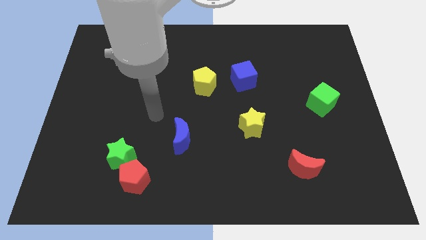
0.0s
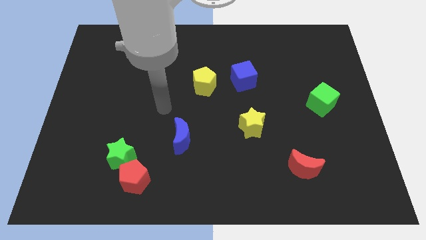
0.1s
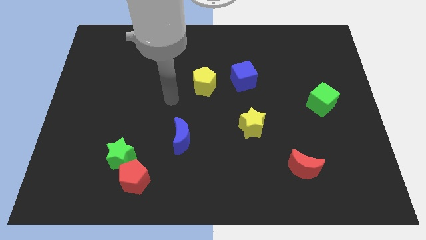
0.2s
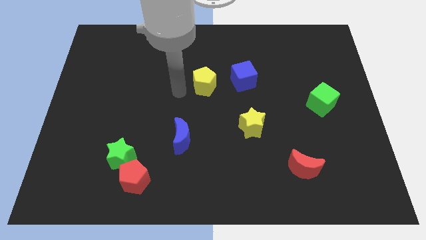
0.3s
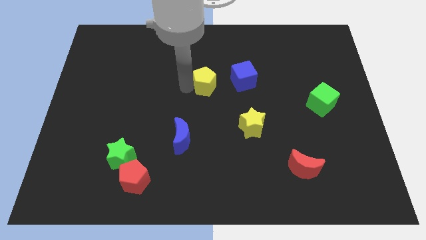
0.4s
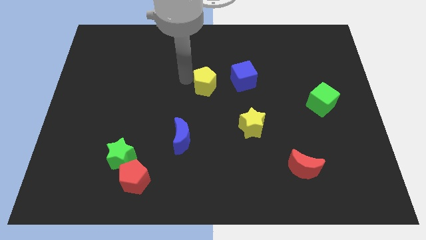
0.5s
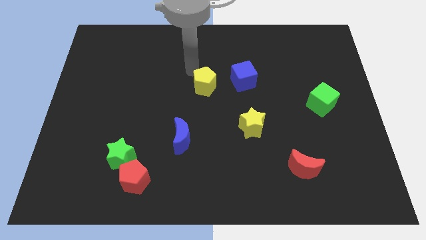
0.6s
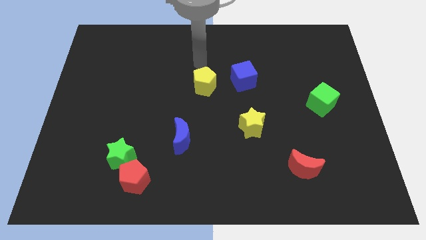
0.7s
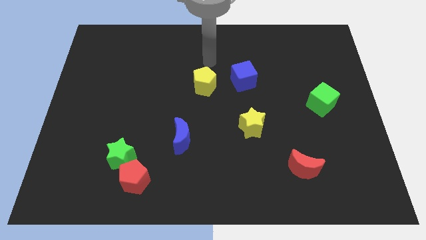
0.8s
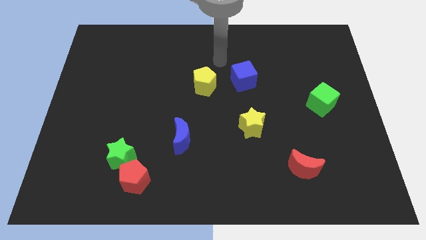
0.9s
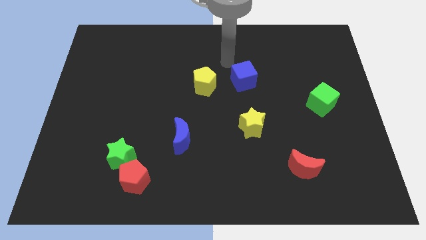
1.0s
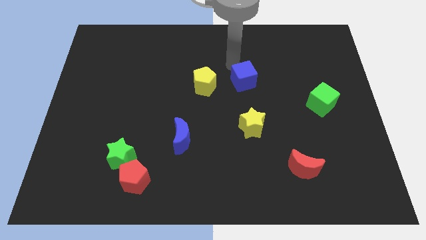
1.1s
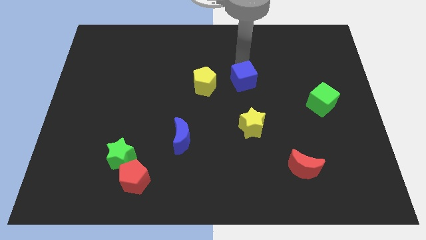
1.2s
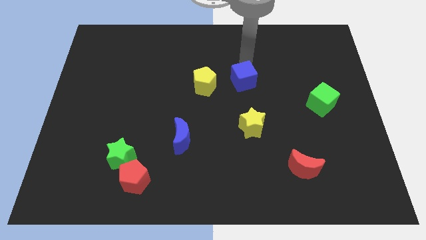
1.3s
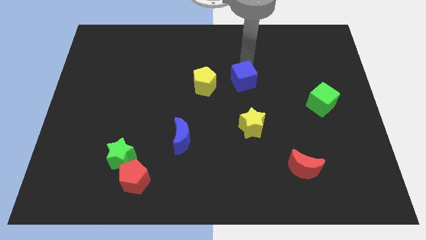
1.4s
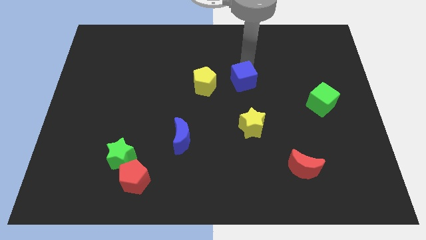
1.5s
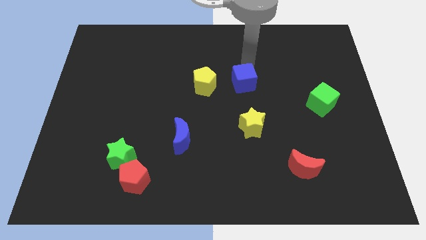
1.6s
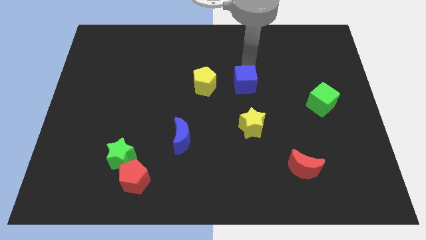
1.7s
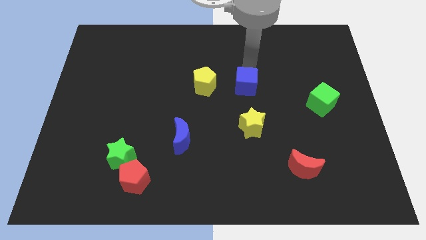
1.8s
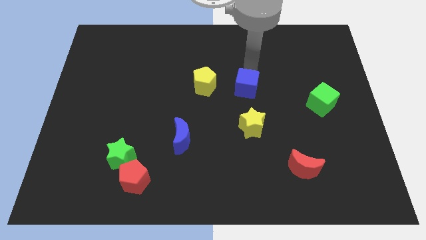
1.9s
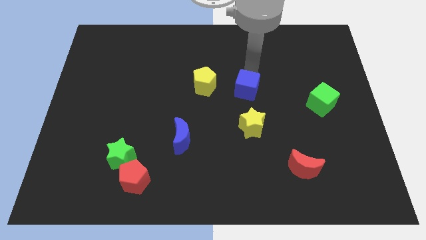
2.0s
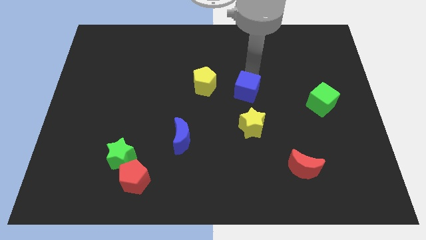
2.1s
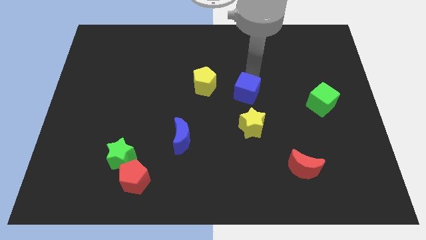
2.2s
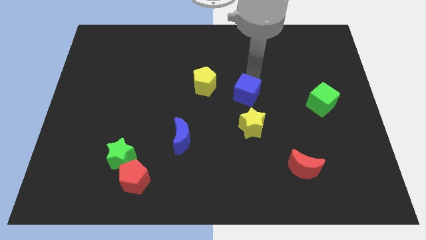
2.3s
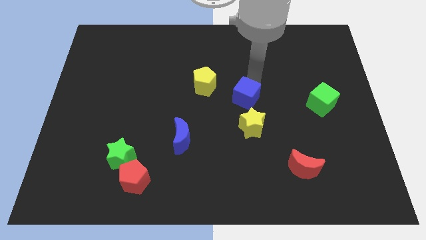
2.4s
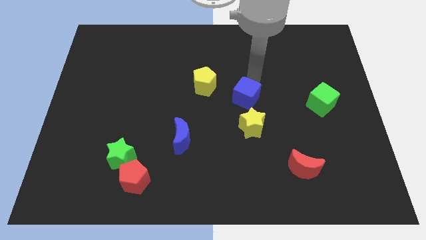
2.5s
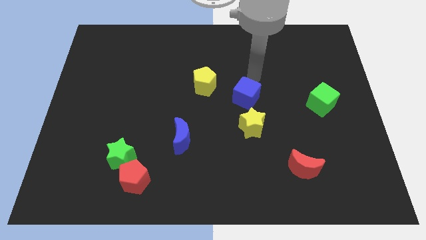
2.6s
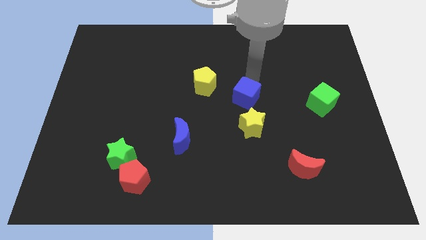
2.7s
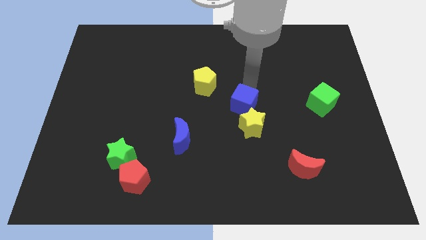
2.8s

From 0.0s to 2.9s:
push the blue cube a little down

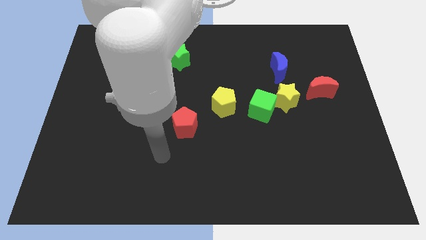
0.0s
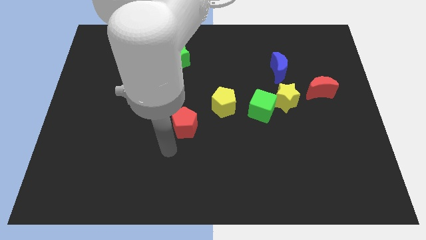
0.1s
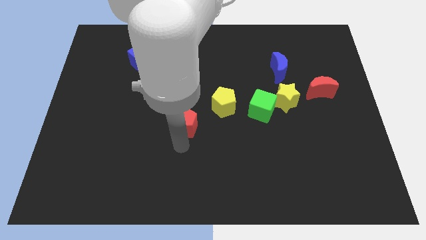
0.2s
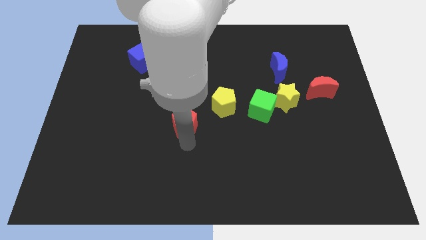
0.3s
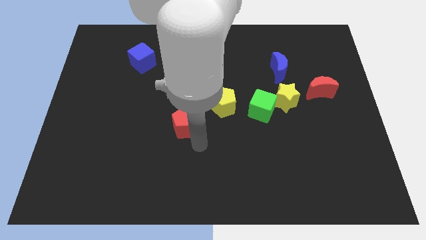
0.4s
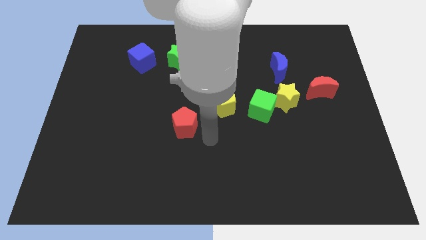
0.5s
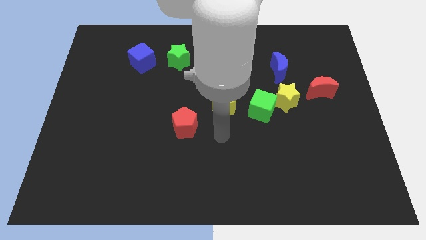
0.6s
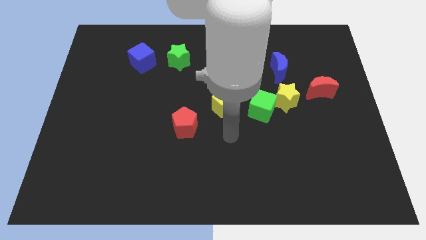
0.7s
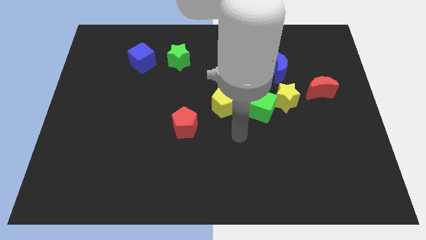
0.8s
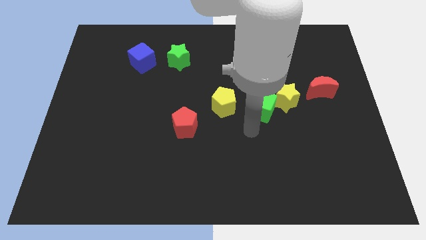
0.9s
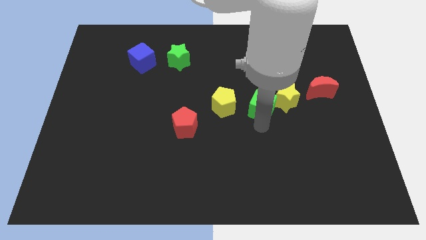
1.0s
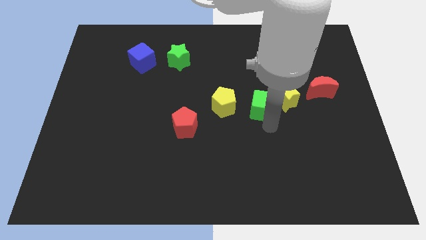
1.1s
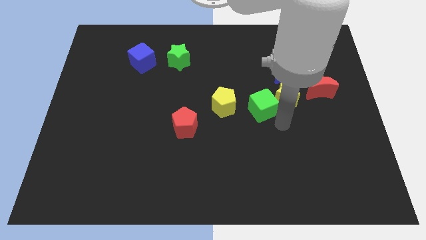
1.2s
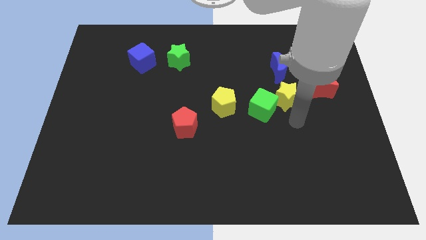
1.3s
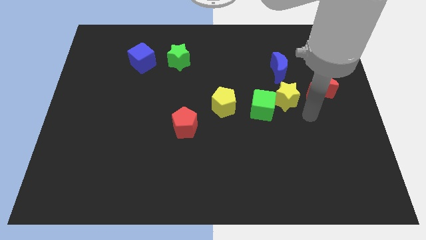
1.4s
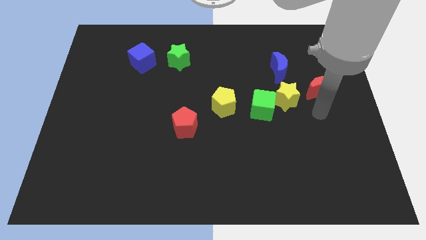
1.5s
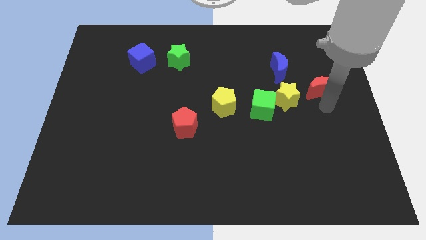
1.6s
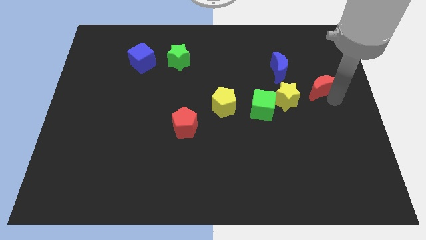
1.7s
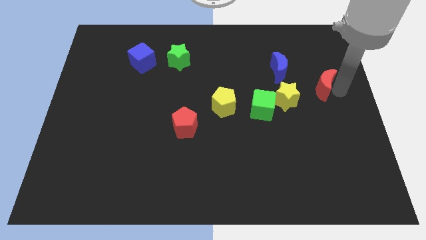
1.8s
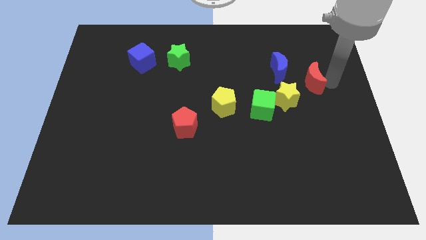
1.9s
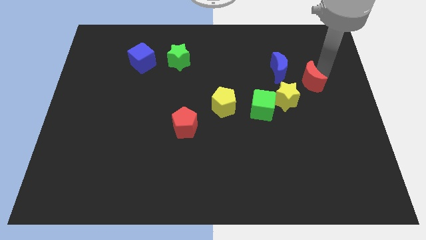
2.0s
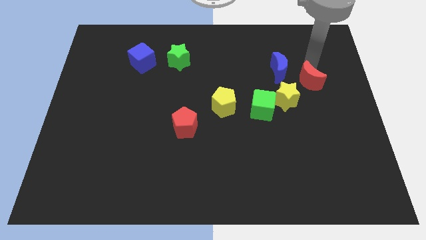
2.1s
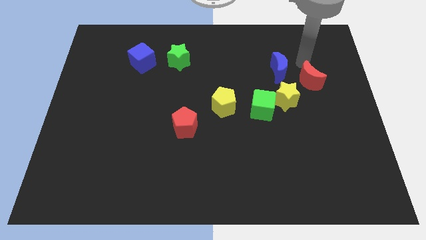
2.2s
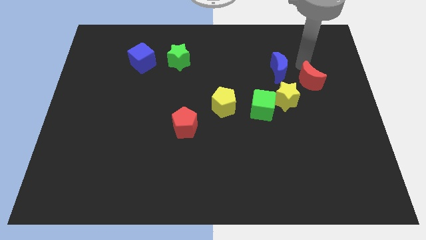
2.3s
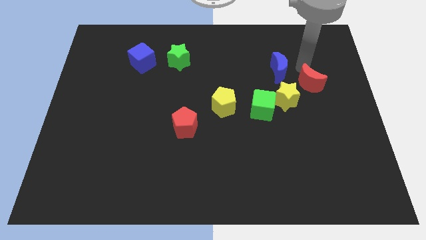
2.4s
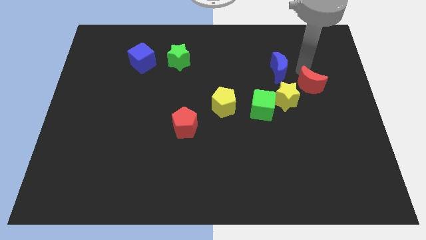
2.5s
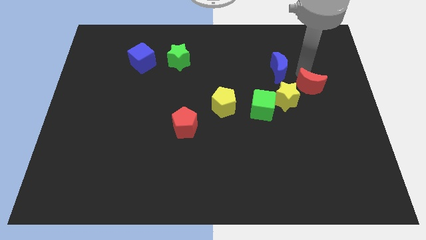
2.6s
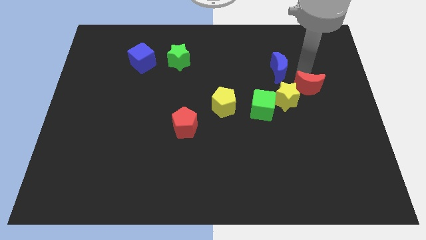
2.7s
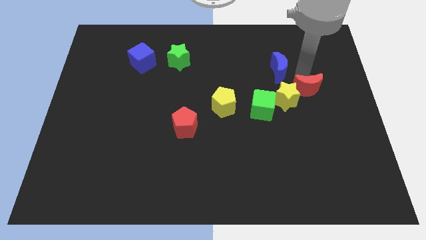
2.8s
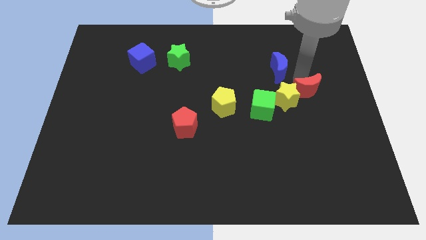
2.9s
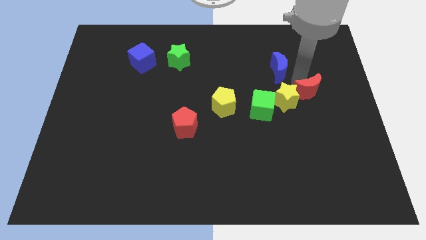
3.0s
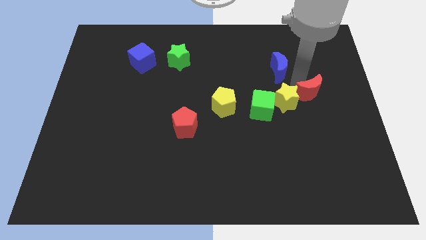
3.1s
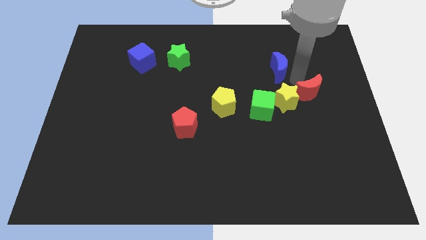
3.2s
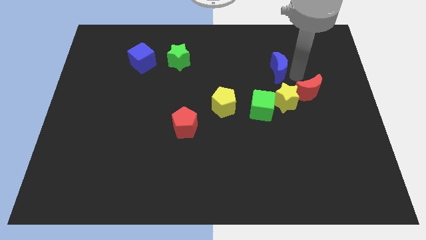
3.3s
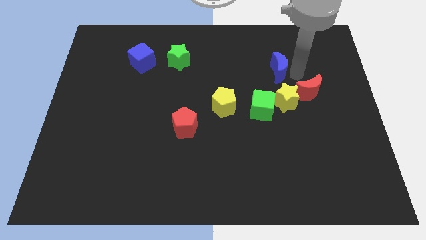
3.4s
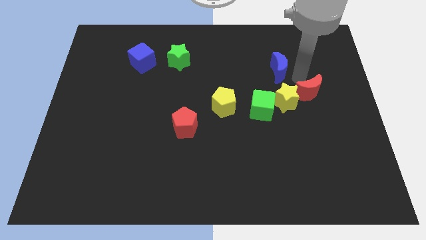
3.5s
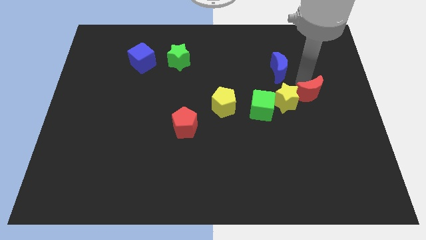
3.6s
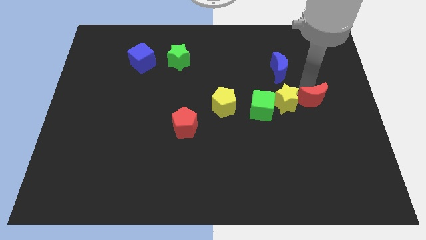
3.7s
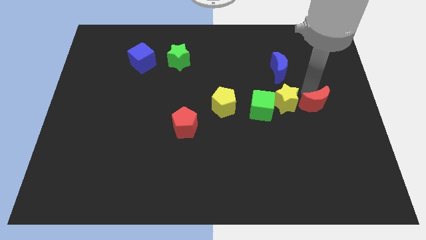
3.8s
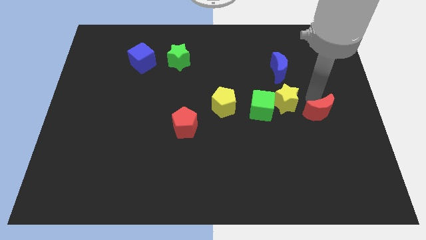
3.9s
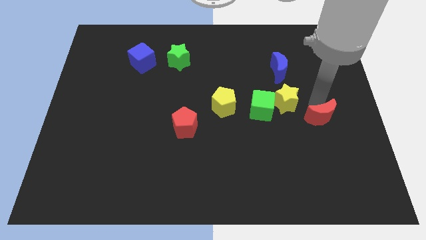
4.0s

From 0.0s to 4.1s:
push the red moon somewhat down

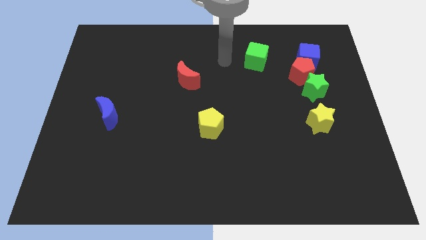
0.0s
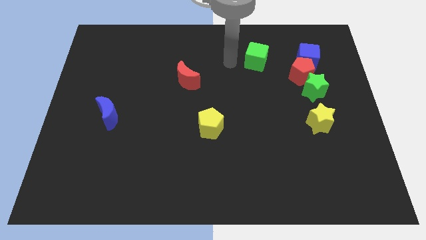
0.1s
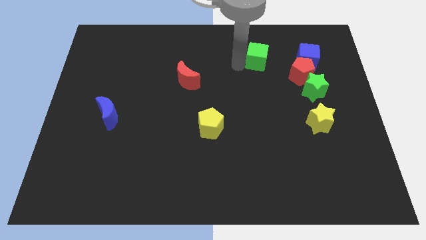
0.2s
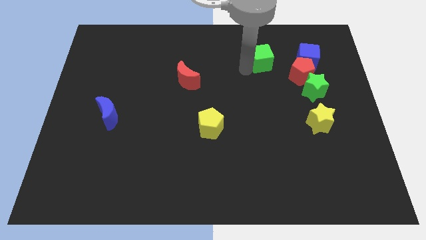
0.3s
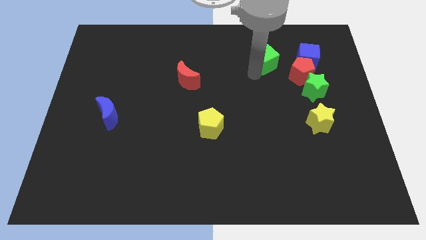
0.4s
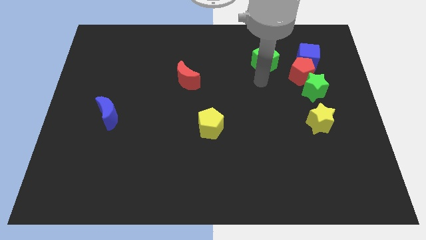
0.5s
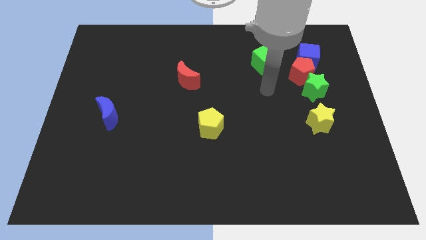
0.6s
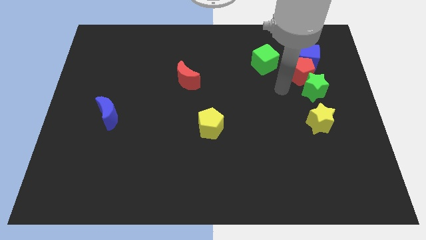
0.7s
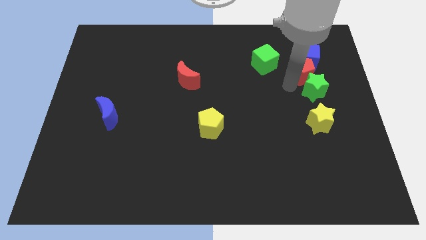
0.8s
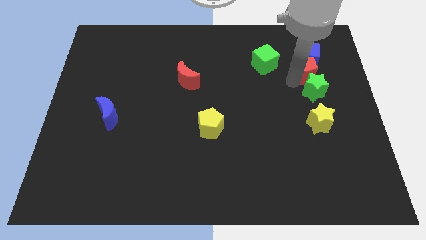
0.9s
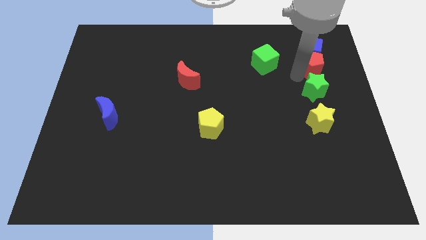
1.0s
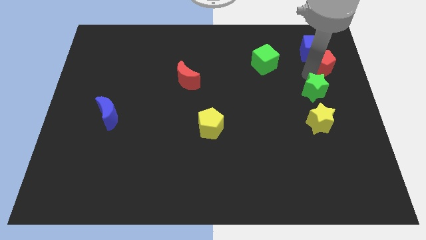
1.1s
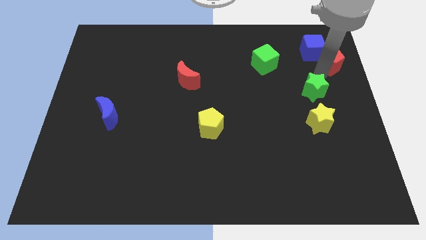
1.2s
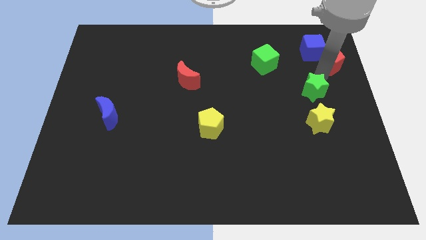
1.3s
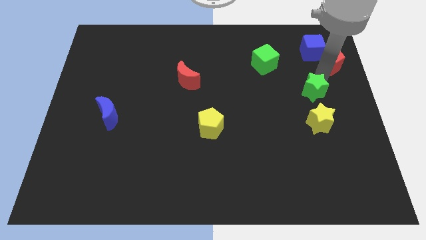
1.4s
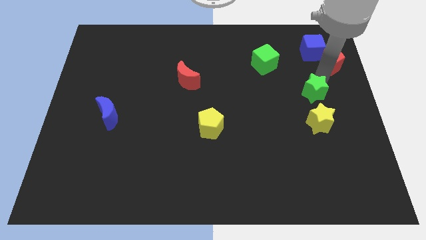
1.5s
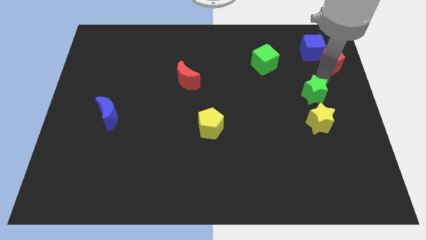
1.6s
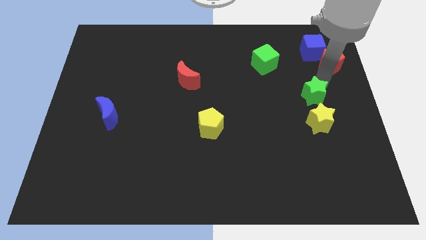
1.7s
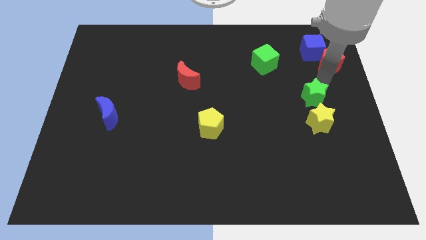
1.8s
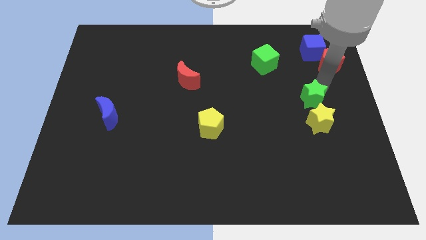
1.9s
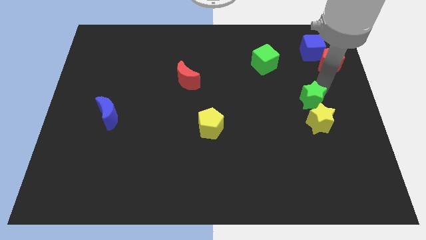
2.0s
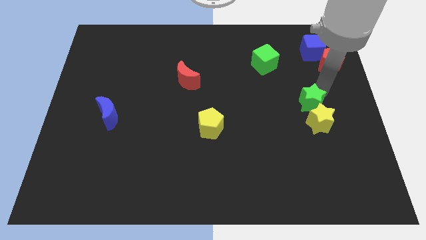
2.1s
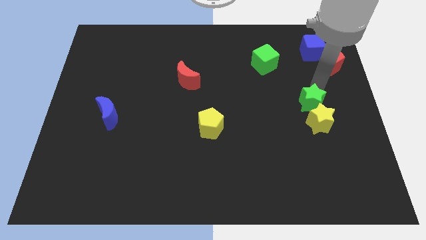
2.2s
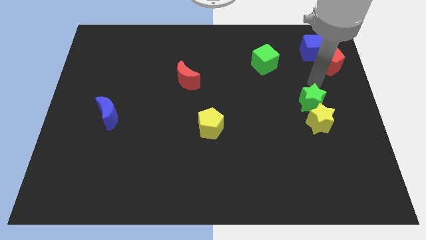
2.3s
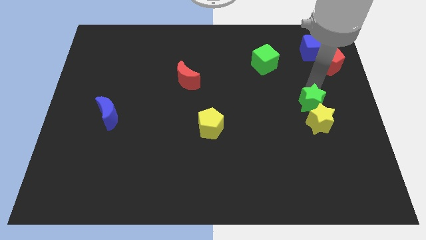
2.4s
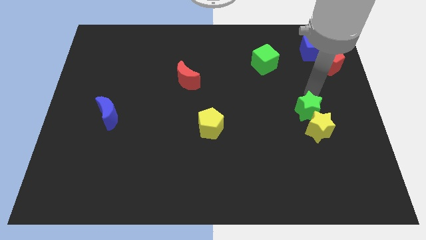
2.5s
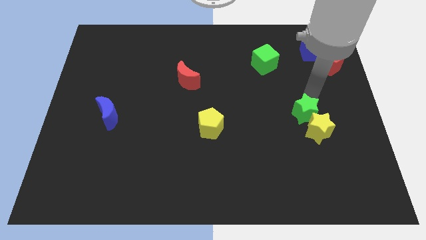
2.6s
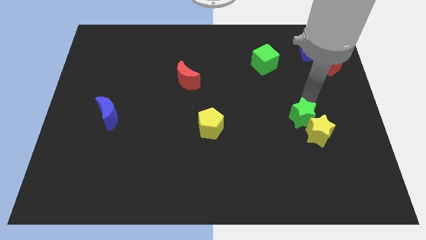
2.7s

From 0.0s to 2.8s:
slightly move the green star down
